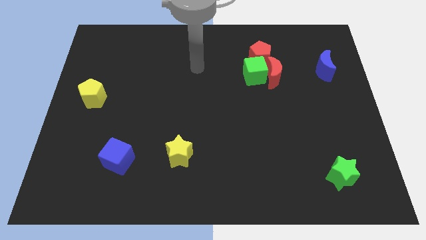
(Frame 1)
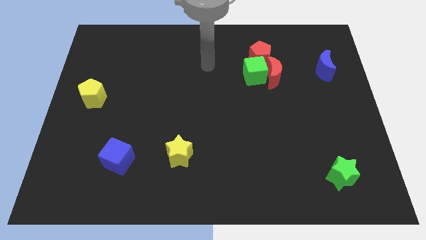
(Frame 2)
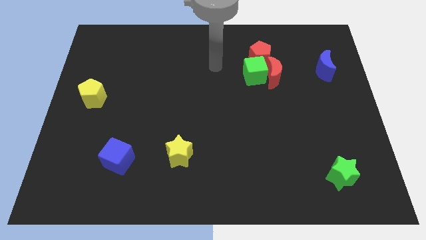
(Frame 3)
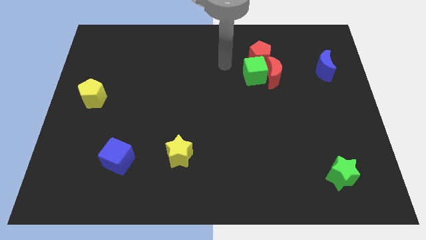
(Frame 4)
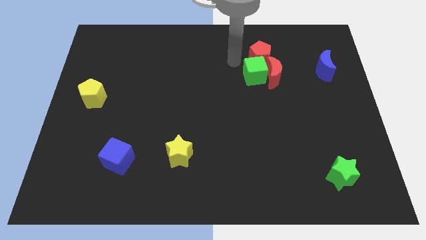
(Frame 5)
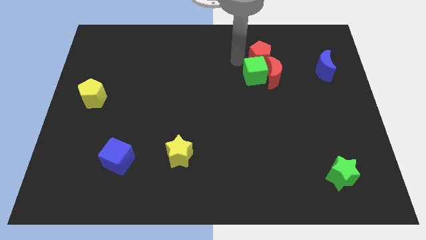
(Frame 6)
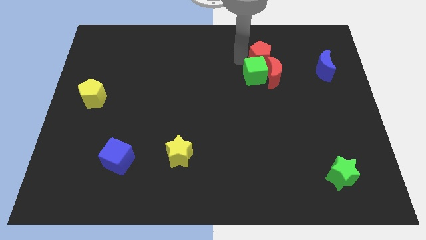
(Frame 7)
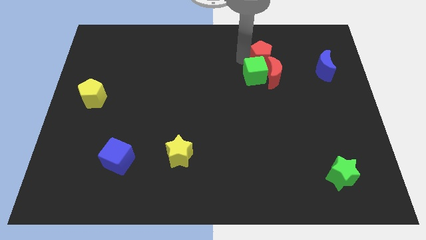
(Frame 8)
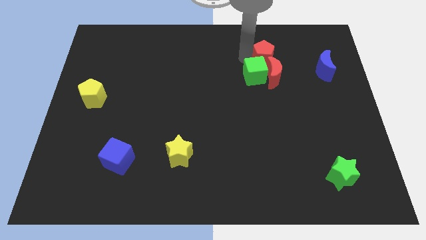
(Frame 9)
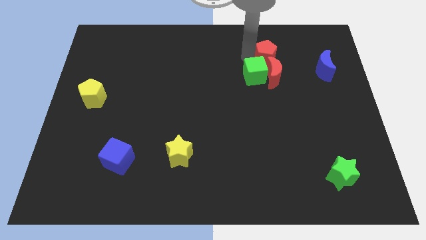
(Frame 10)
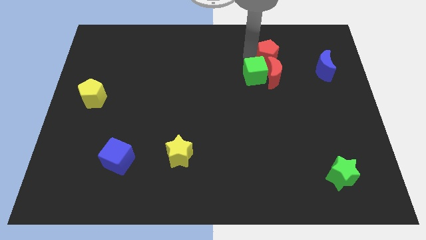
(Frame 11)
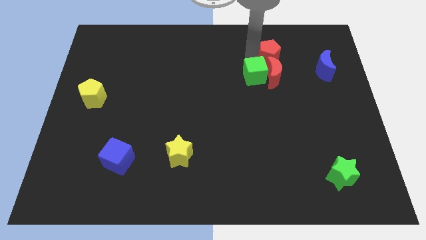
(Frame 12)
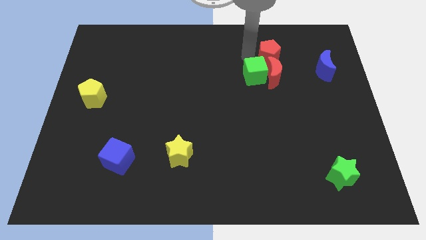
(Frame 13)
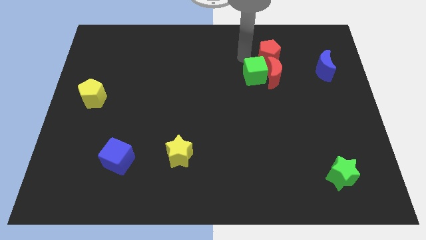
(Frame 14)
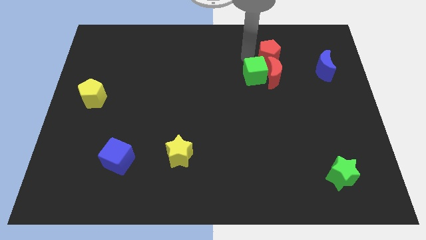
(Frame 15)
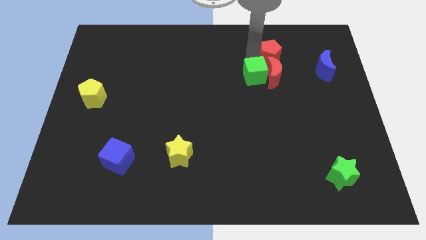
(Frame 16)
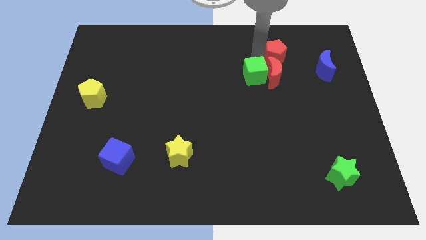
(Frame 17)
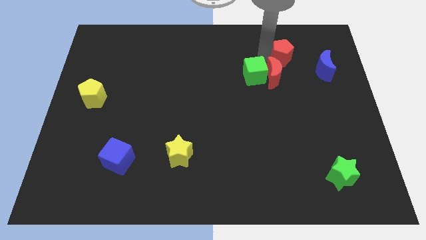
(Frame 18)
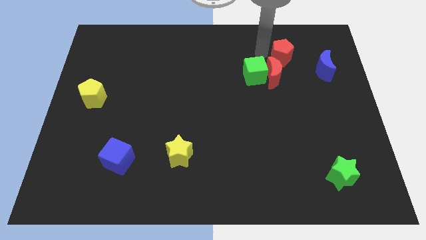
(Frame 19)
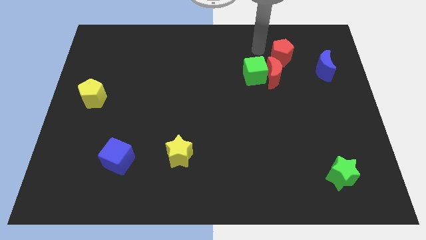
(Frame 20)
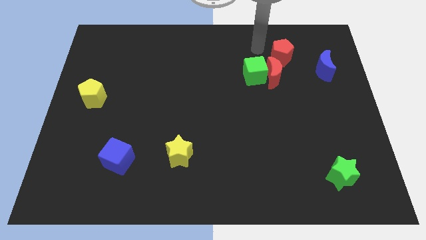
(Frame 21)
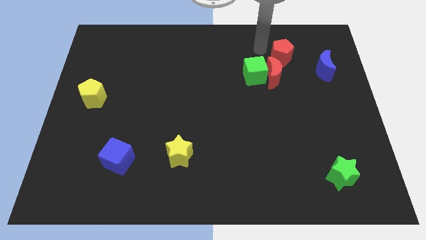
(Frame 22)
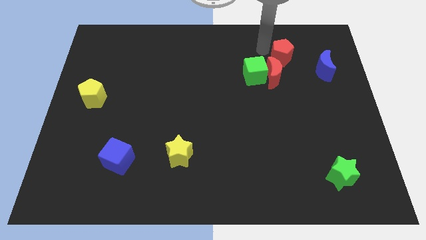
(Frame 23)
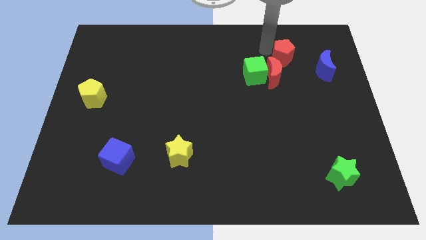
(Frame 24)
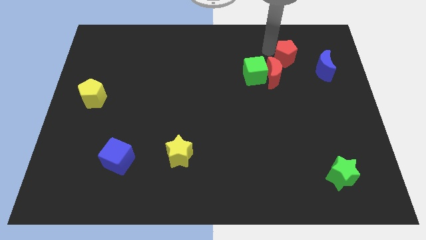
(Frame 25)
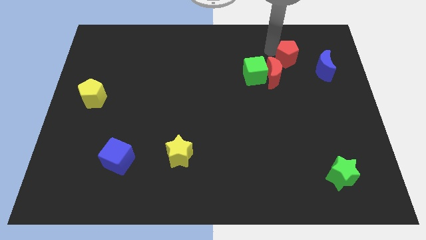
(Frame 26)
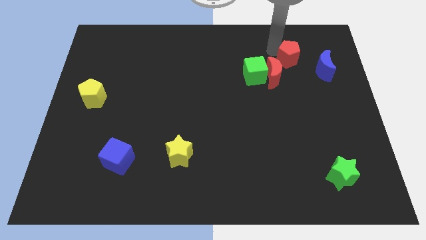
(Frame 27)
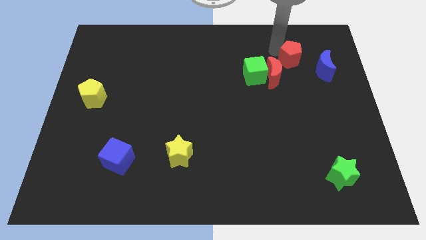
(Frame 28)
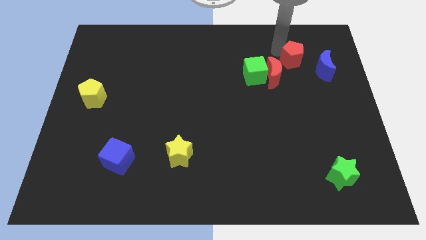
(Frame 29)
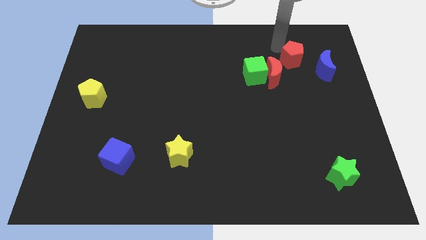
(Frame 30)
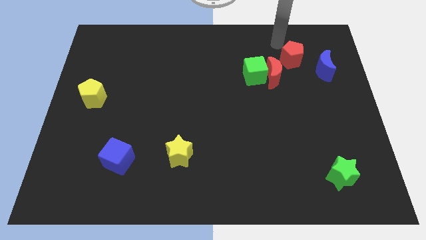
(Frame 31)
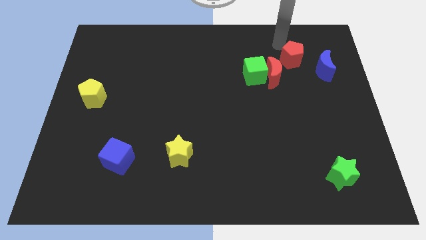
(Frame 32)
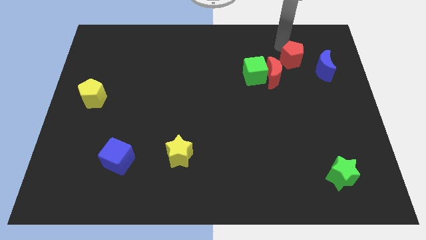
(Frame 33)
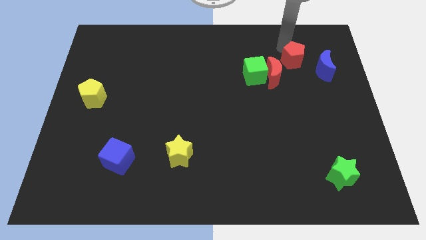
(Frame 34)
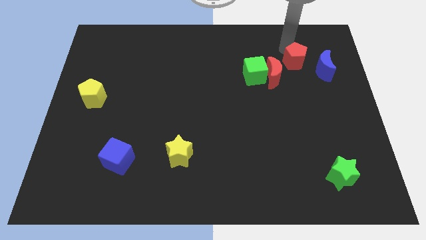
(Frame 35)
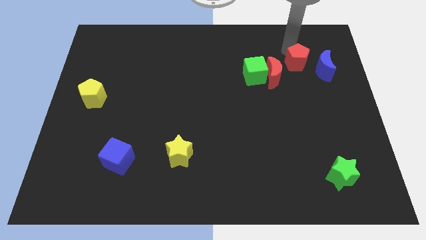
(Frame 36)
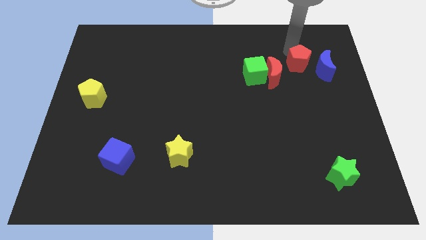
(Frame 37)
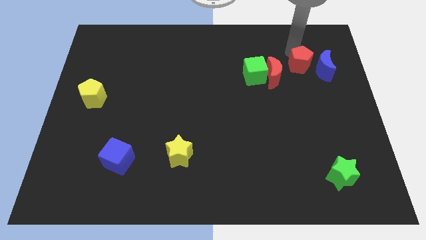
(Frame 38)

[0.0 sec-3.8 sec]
push the red pentagon downwards and to the right slightly

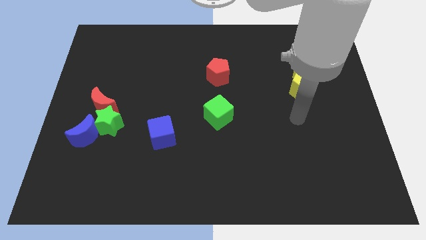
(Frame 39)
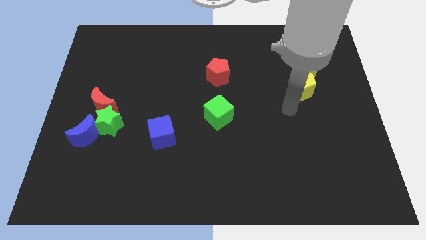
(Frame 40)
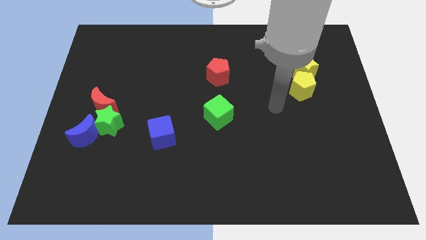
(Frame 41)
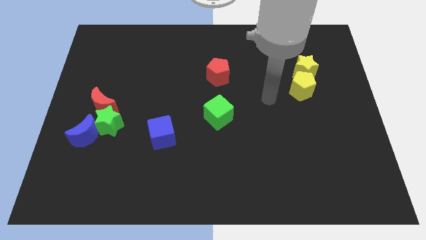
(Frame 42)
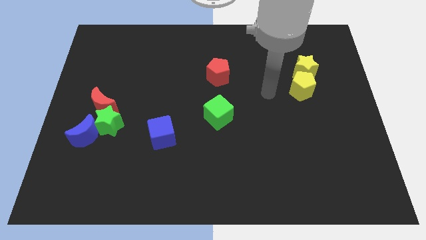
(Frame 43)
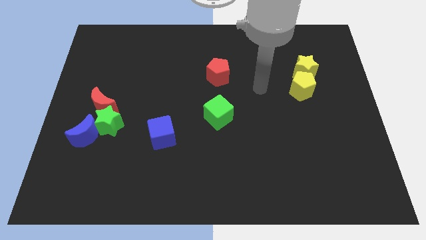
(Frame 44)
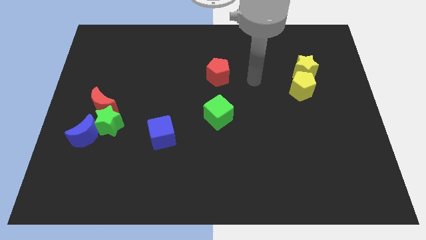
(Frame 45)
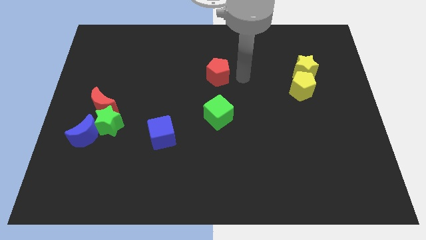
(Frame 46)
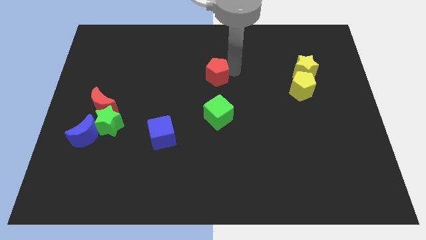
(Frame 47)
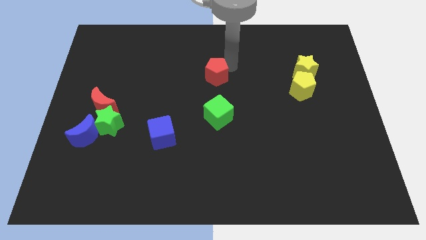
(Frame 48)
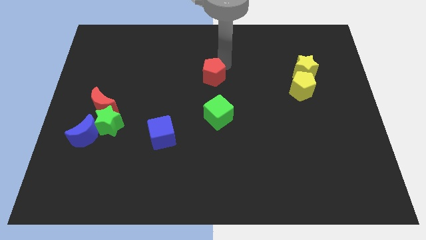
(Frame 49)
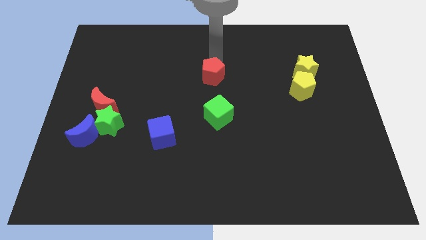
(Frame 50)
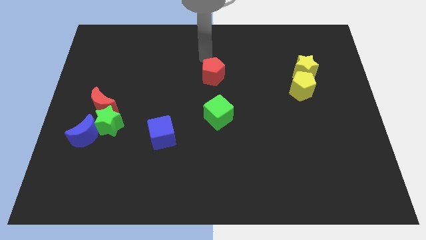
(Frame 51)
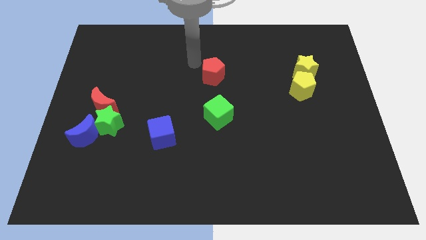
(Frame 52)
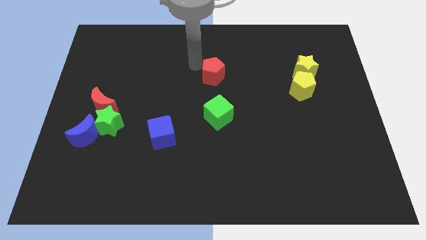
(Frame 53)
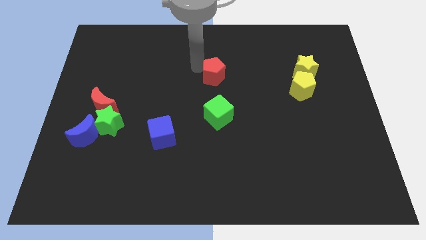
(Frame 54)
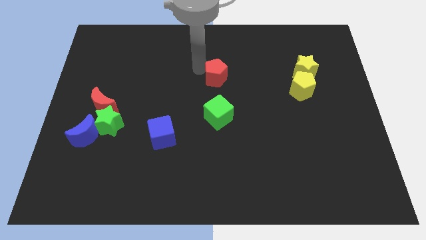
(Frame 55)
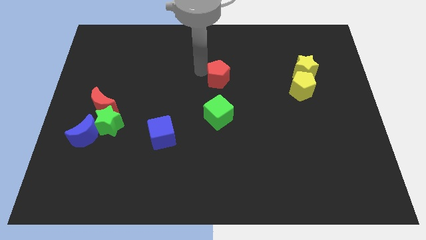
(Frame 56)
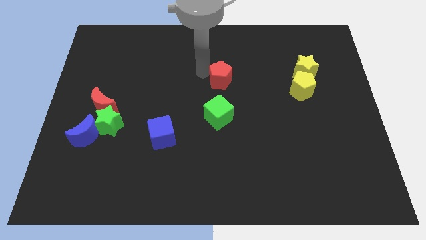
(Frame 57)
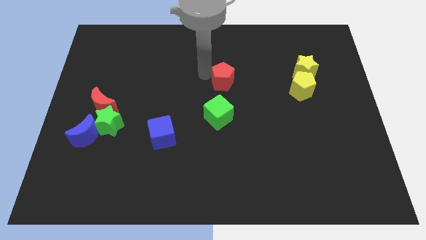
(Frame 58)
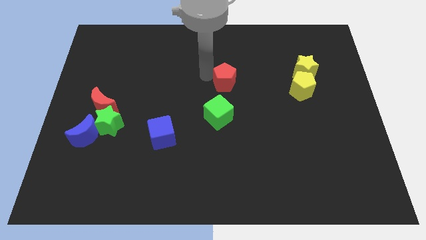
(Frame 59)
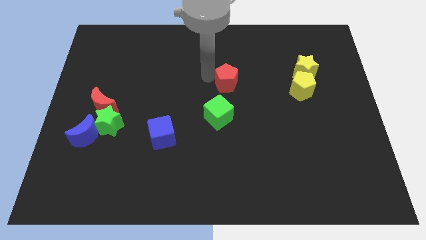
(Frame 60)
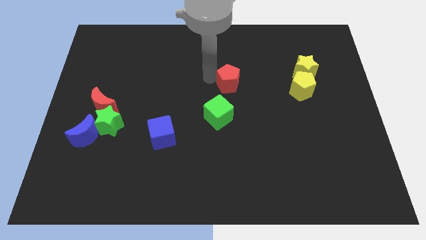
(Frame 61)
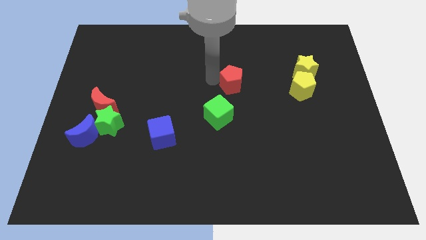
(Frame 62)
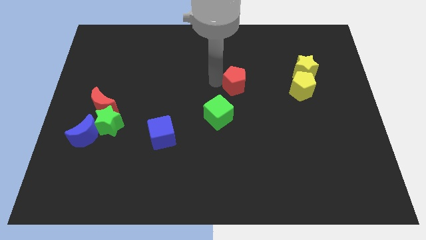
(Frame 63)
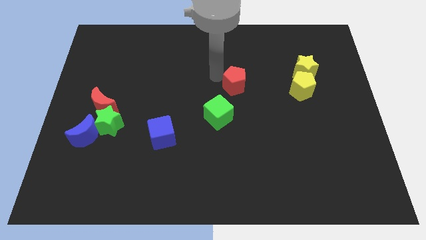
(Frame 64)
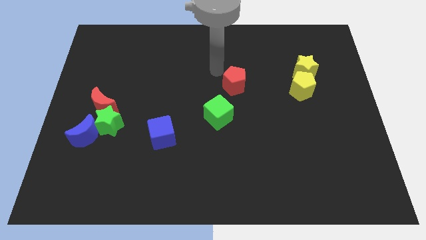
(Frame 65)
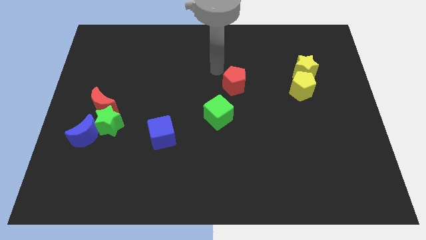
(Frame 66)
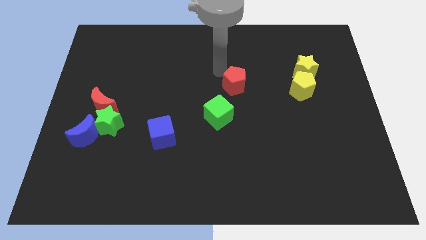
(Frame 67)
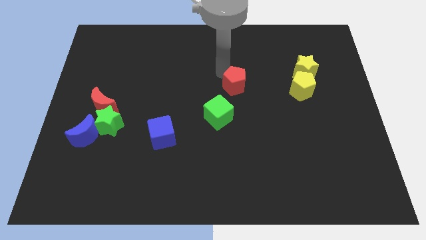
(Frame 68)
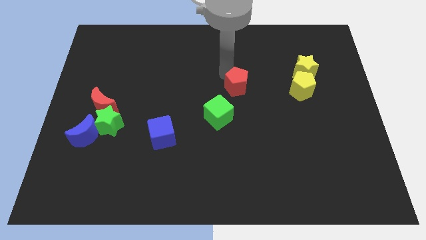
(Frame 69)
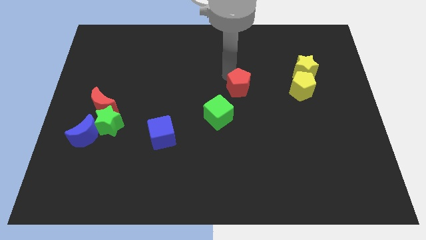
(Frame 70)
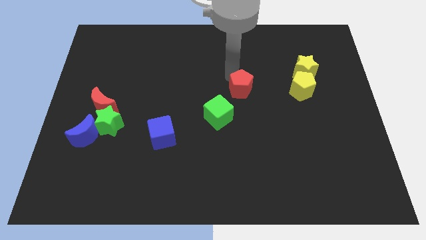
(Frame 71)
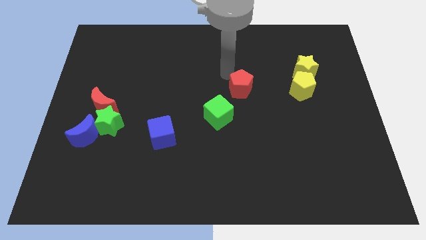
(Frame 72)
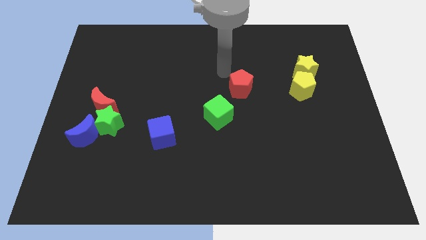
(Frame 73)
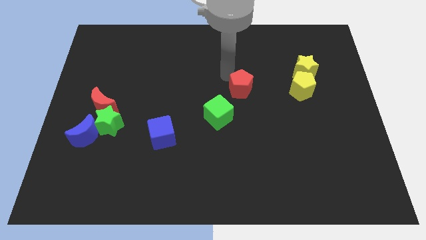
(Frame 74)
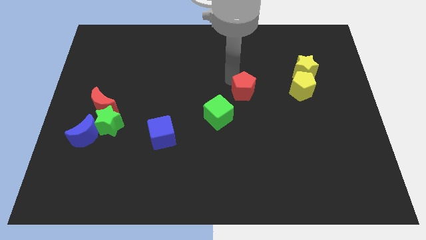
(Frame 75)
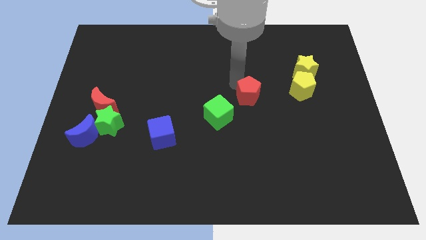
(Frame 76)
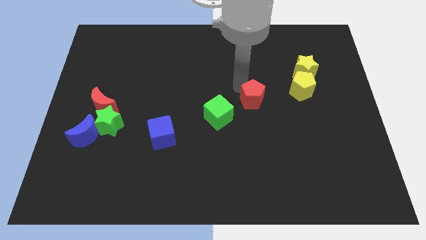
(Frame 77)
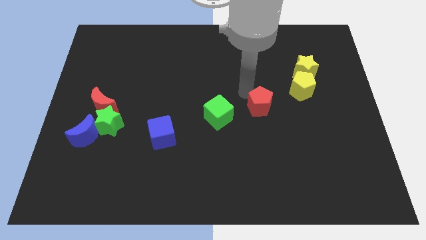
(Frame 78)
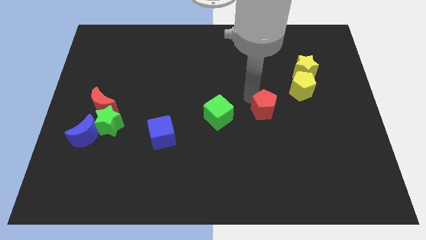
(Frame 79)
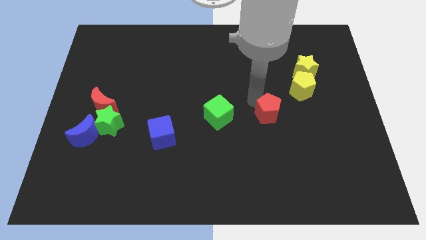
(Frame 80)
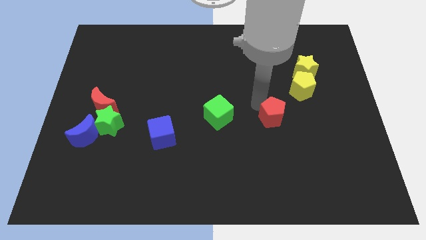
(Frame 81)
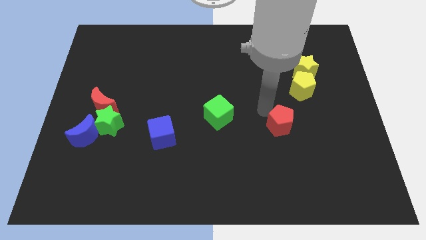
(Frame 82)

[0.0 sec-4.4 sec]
push the red pentagon downwards and to the right diagonally
